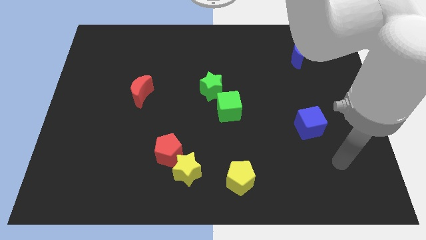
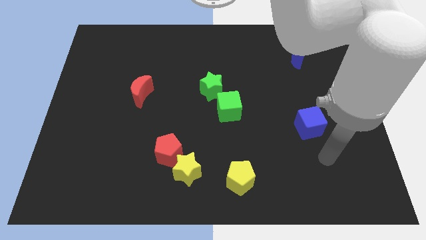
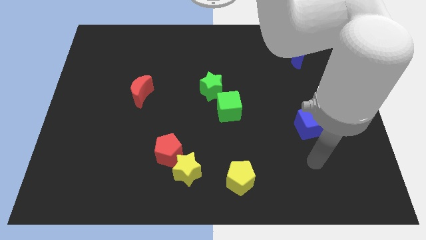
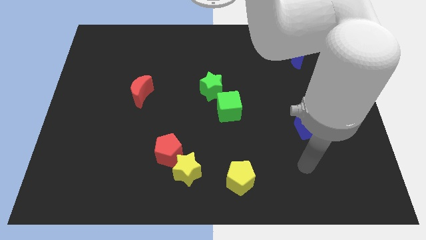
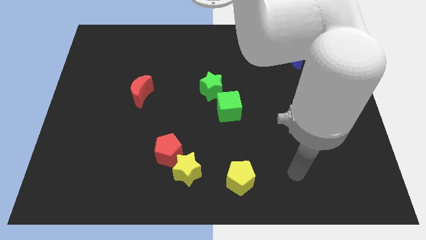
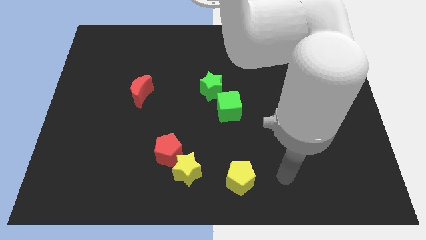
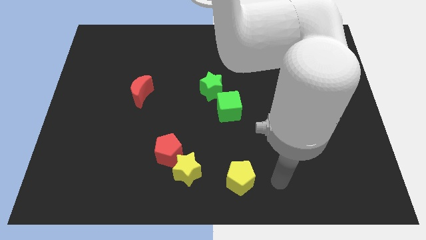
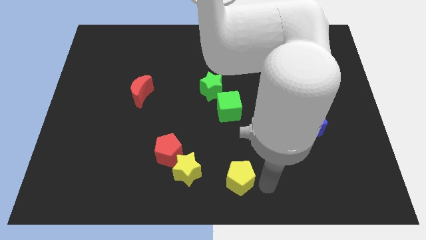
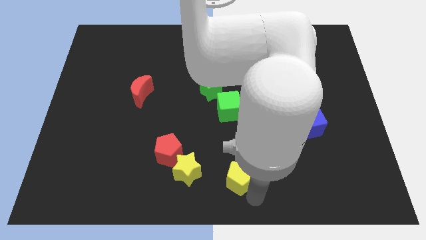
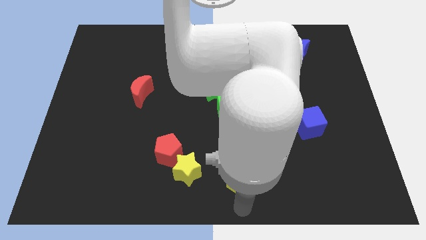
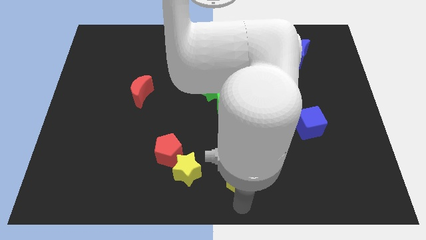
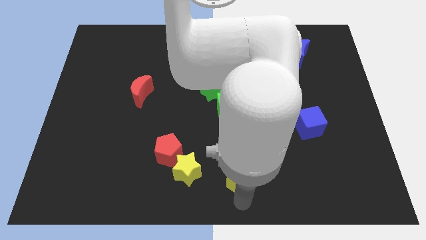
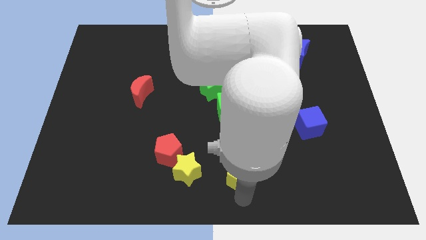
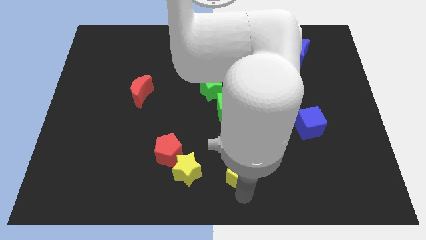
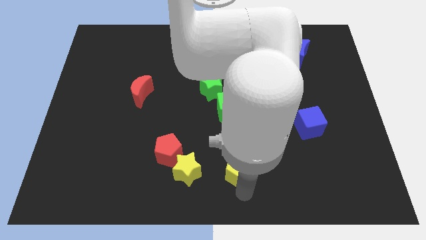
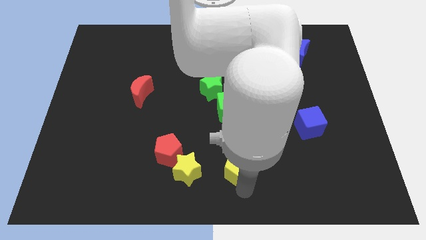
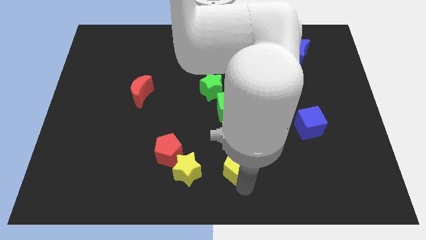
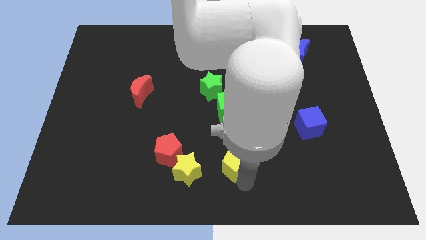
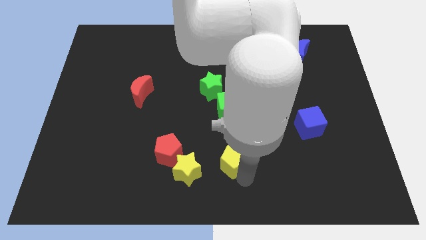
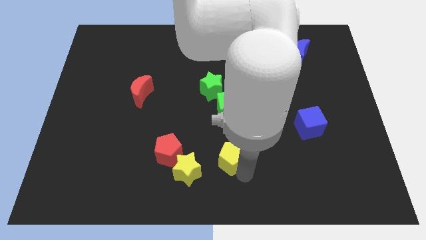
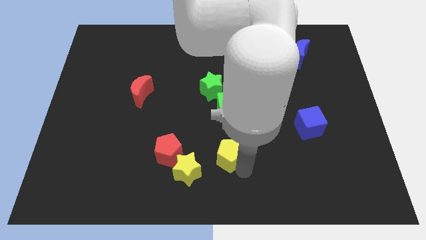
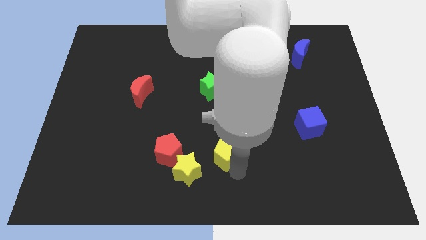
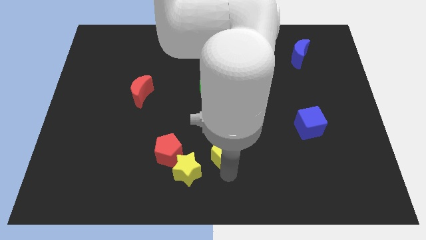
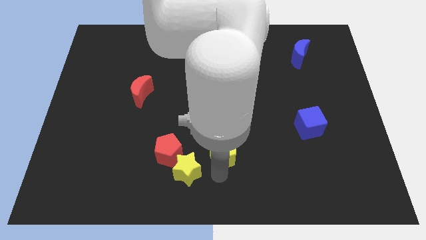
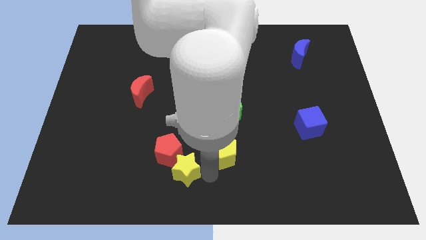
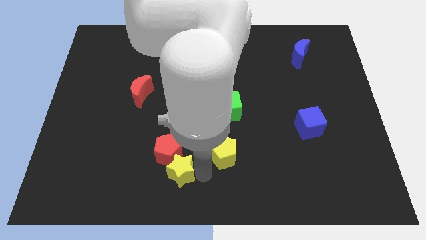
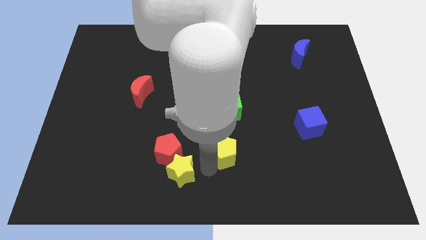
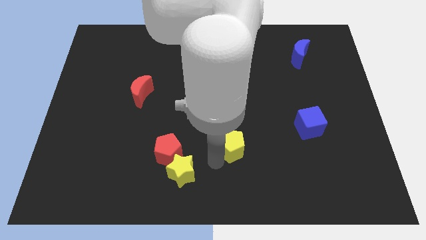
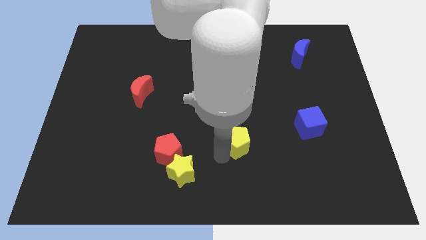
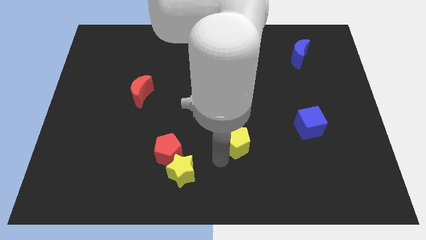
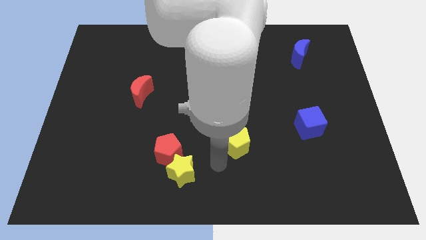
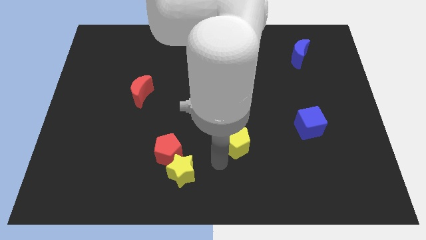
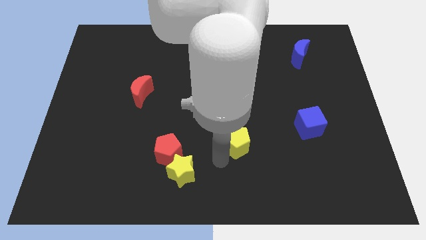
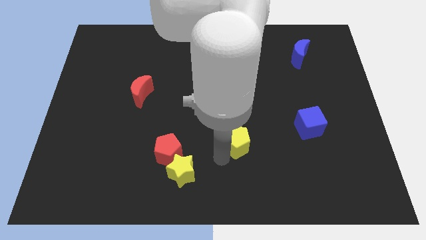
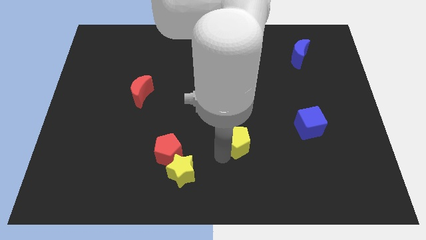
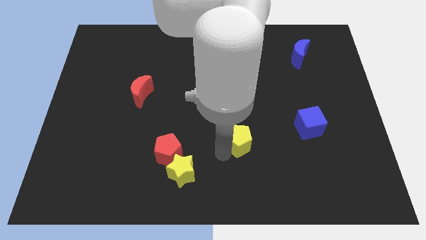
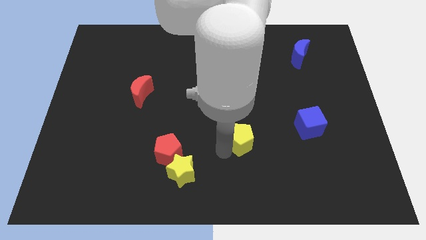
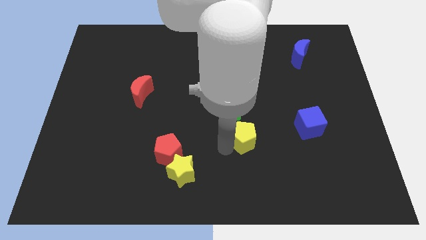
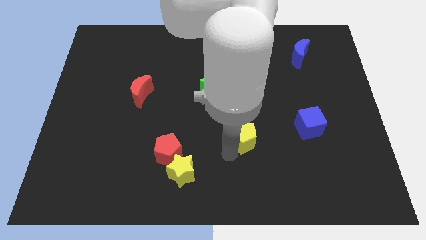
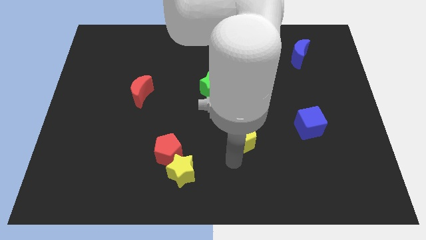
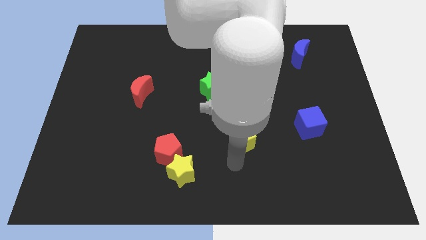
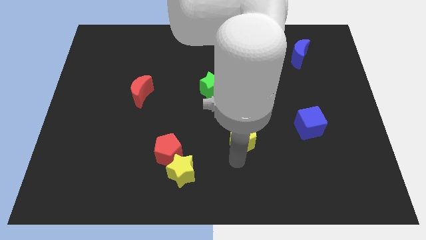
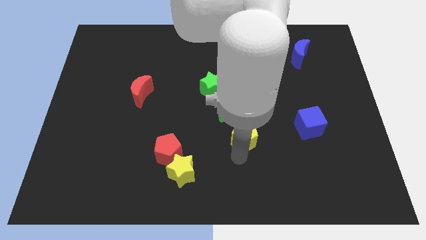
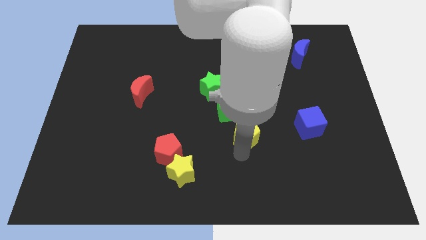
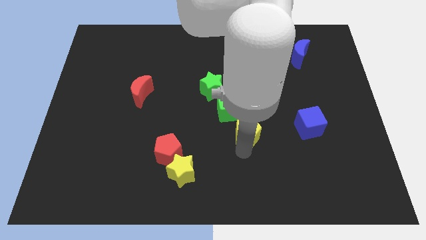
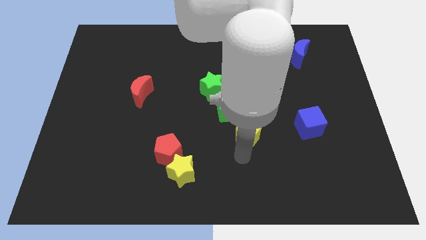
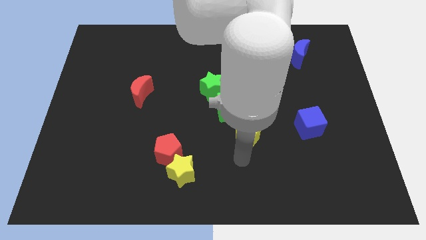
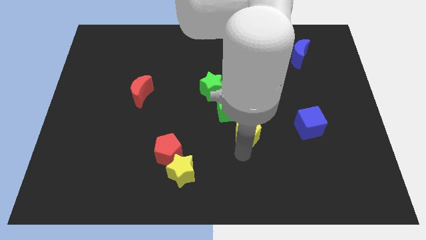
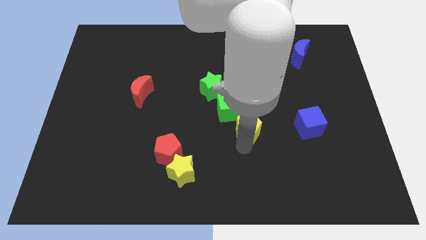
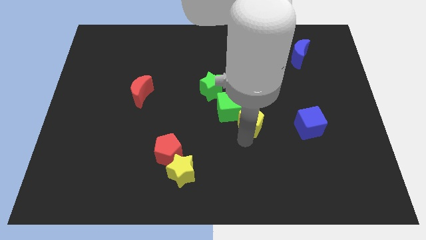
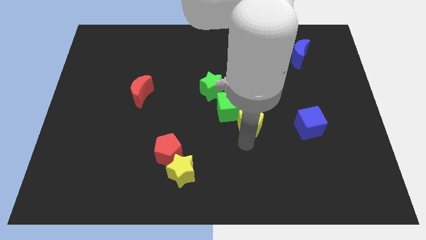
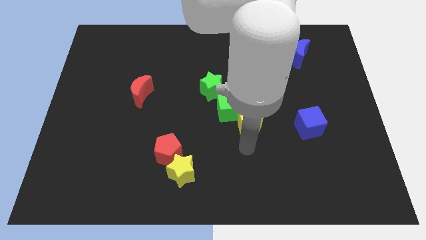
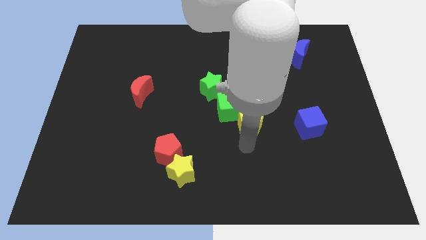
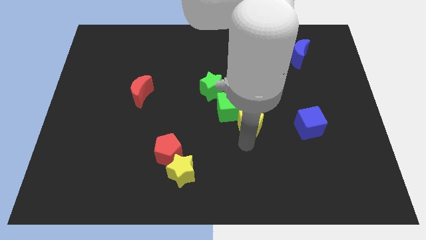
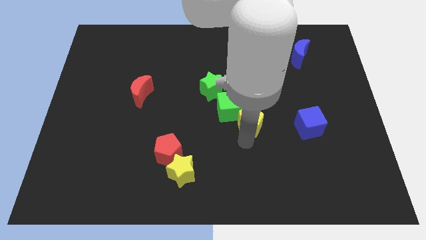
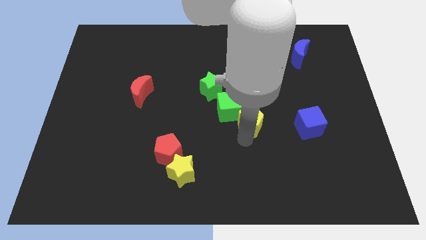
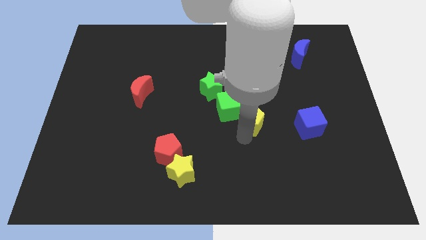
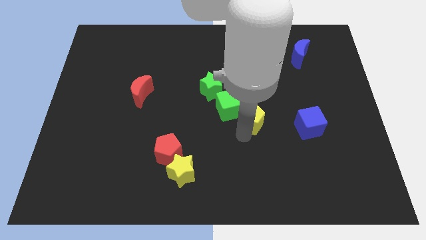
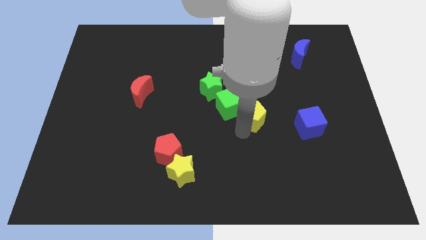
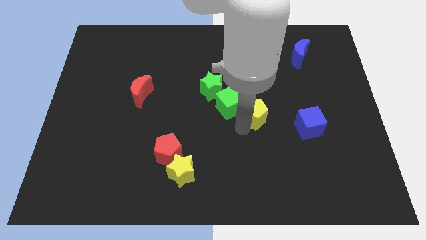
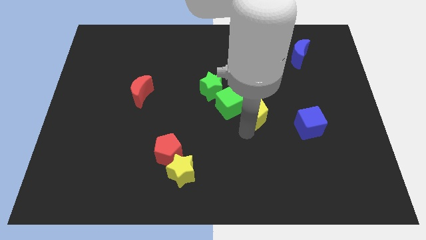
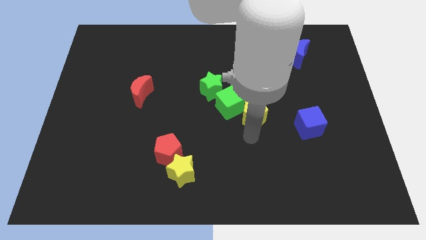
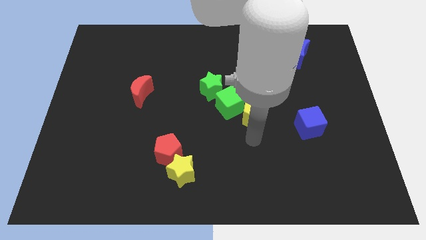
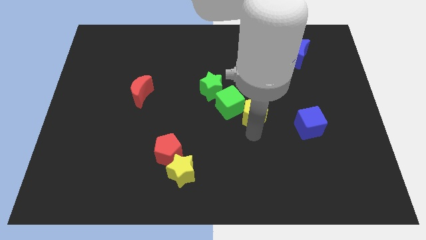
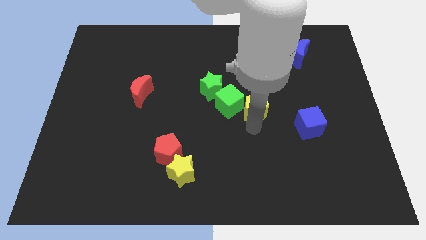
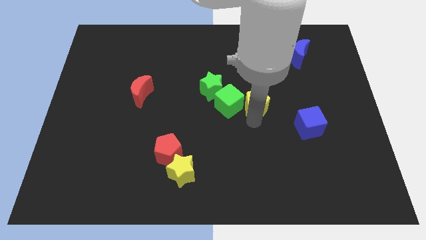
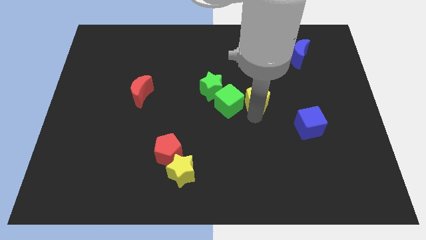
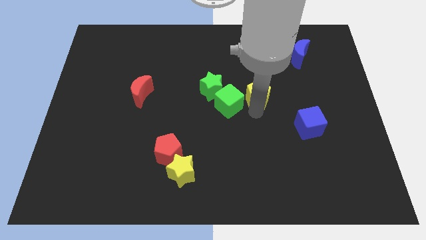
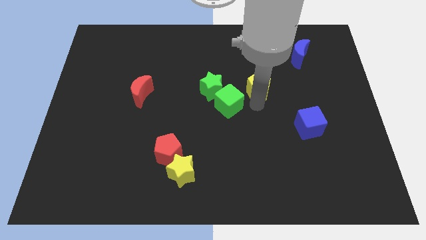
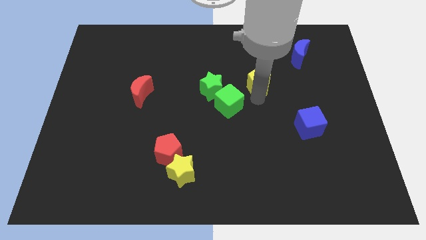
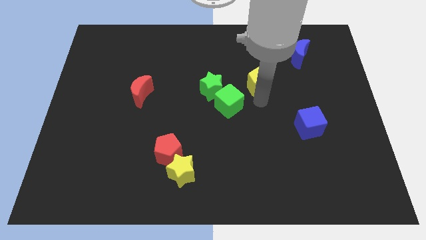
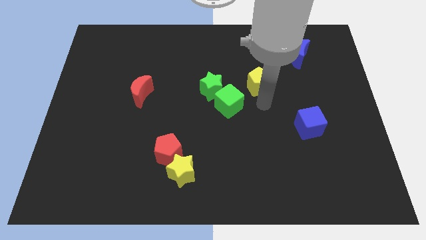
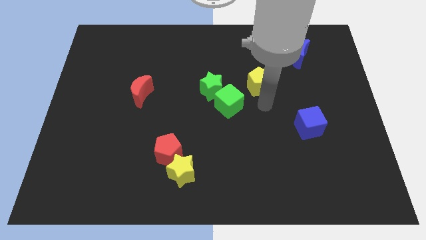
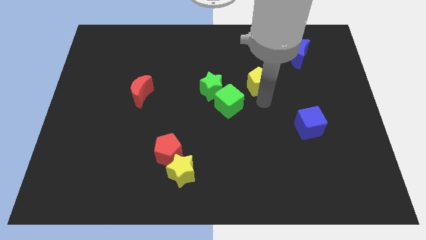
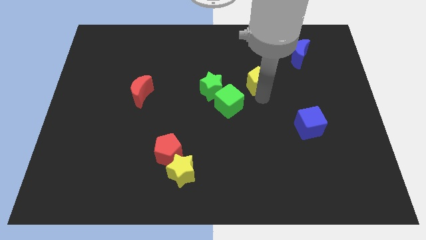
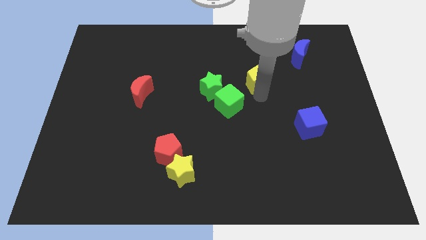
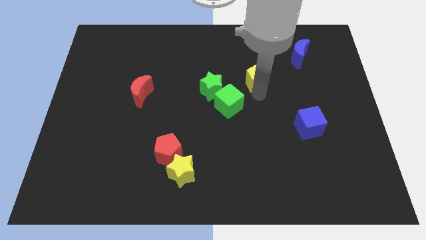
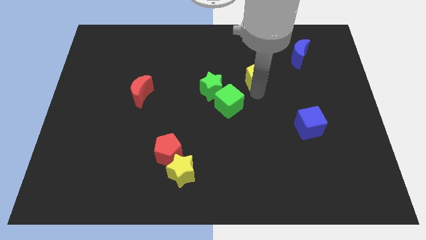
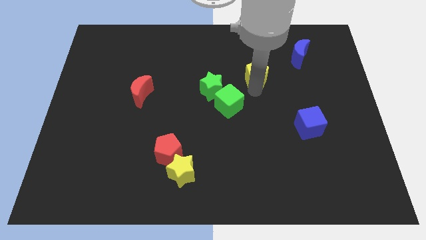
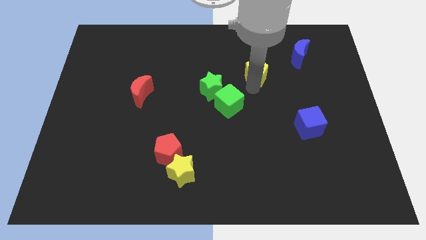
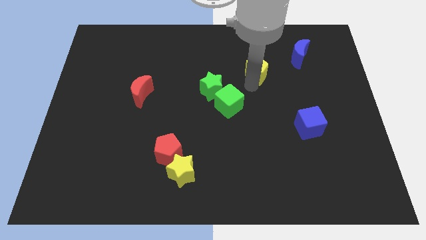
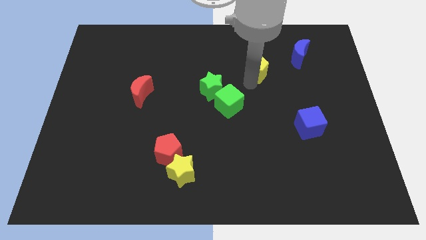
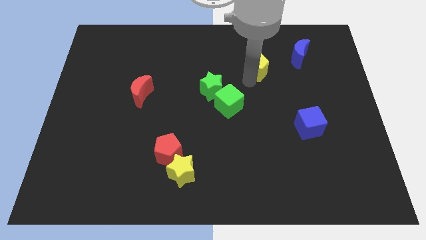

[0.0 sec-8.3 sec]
move the yellow pentagon to the left of the blue moon
